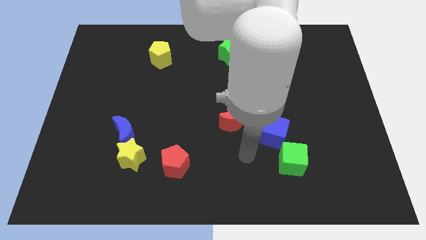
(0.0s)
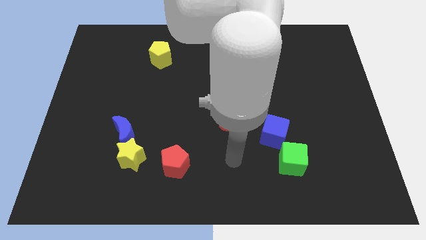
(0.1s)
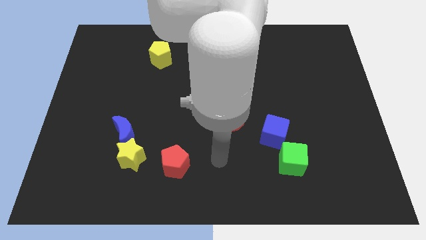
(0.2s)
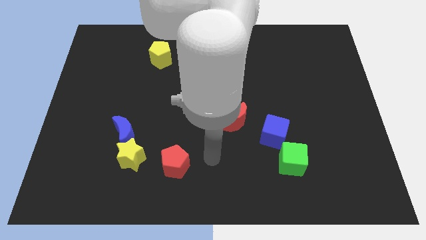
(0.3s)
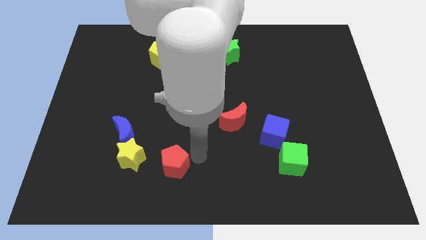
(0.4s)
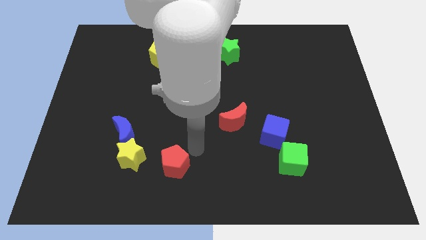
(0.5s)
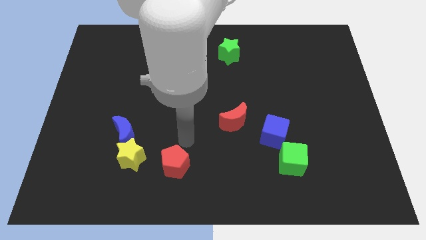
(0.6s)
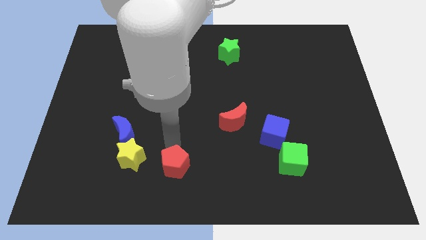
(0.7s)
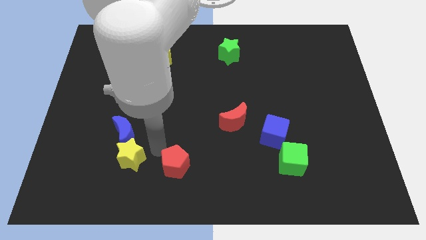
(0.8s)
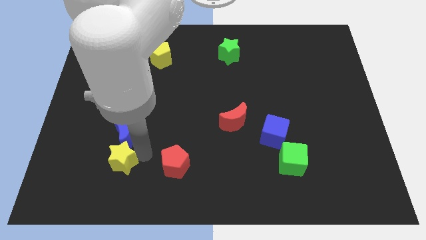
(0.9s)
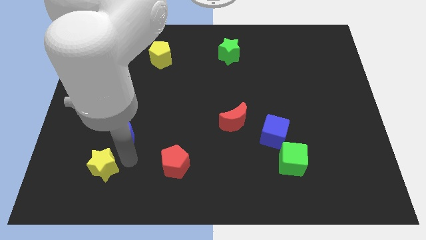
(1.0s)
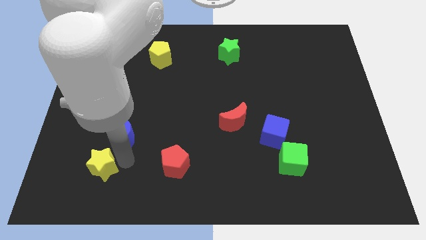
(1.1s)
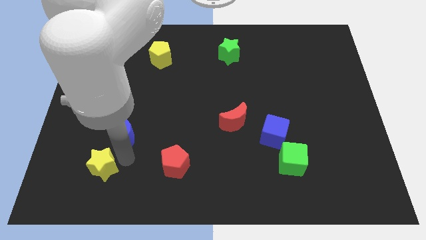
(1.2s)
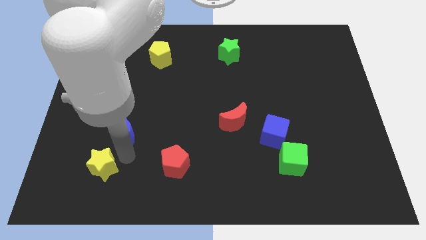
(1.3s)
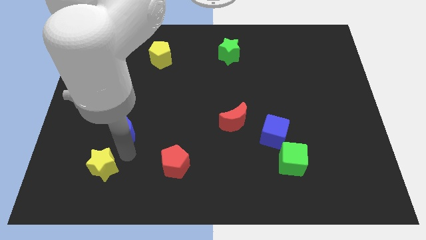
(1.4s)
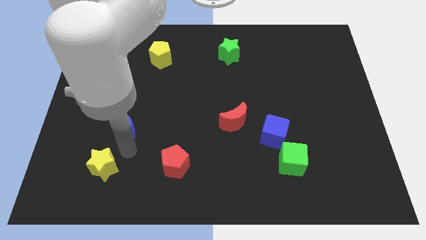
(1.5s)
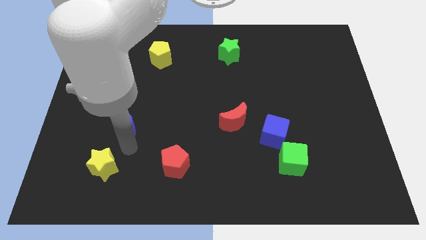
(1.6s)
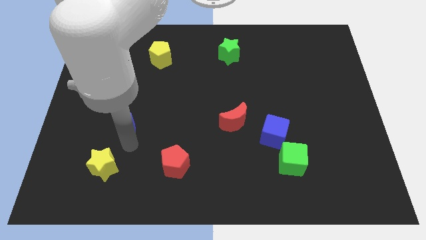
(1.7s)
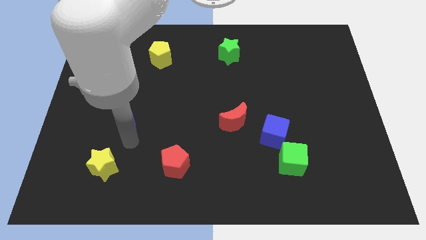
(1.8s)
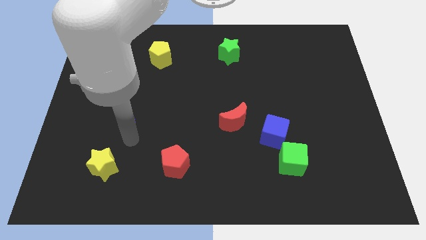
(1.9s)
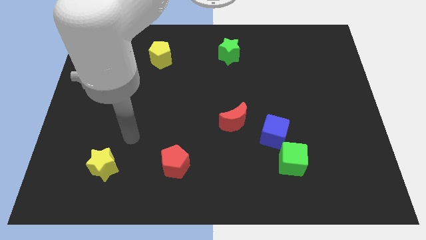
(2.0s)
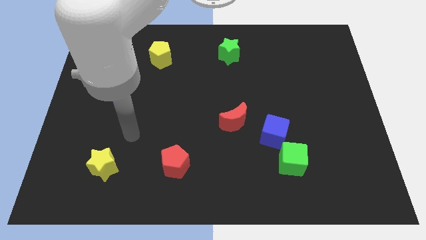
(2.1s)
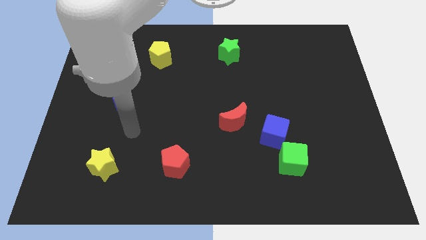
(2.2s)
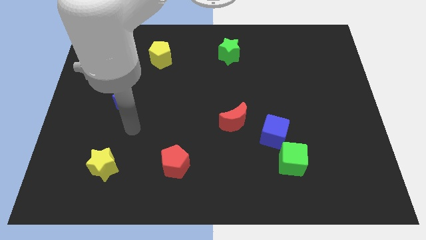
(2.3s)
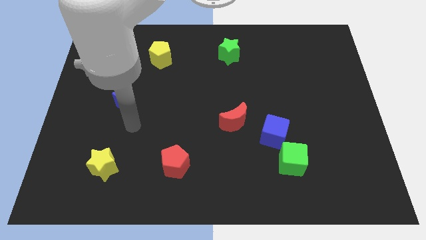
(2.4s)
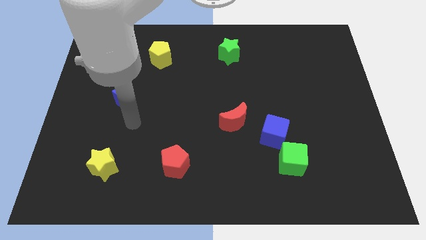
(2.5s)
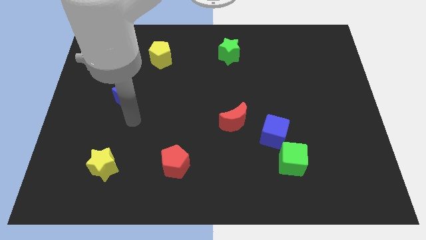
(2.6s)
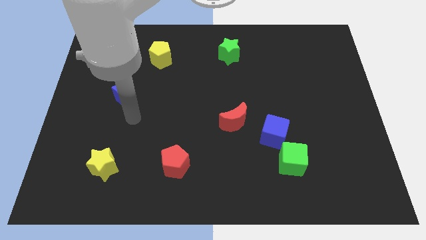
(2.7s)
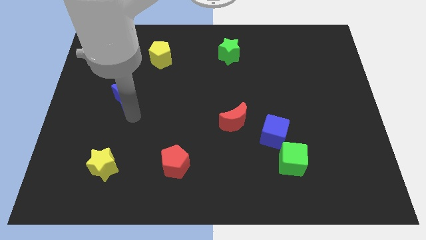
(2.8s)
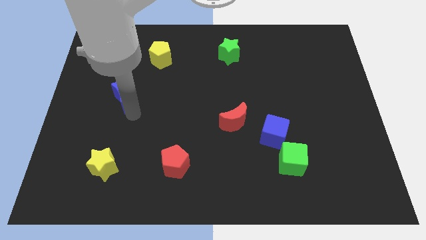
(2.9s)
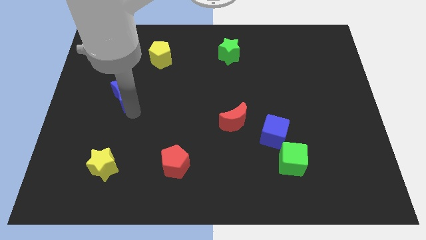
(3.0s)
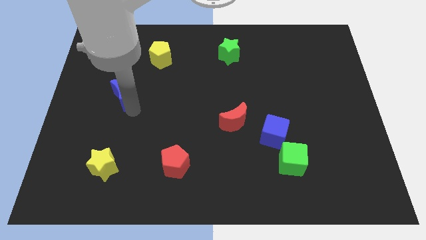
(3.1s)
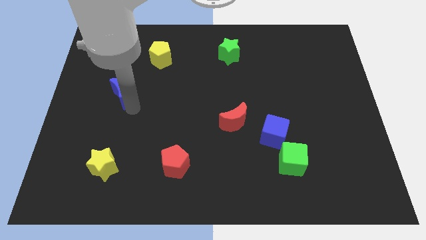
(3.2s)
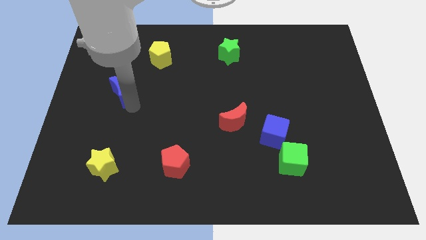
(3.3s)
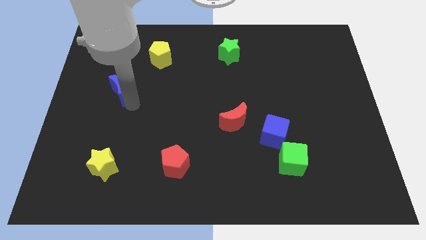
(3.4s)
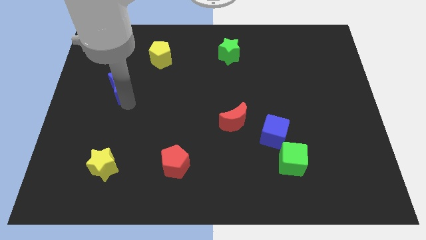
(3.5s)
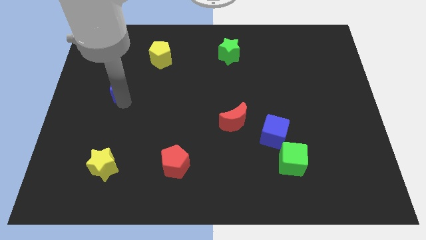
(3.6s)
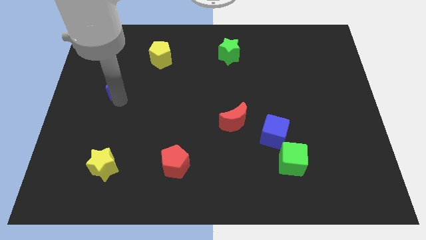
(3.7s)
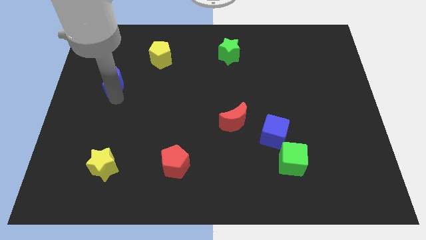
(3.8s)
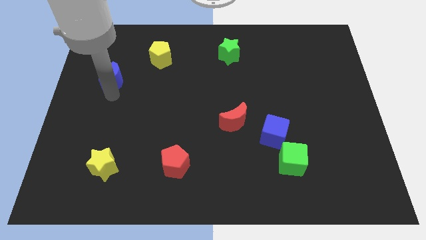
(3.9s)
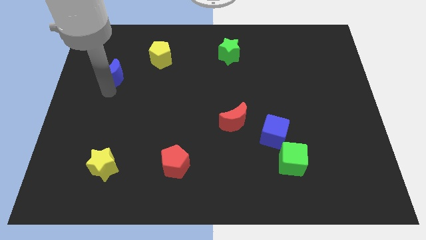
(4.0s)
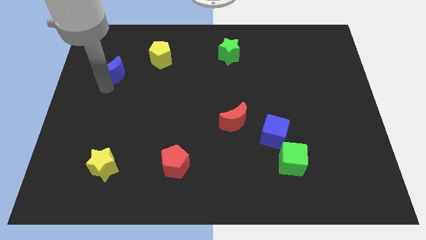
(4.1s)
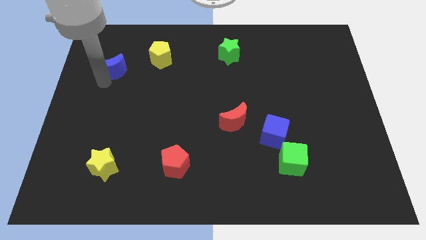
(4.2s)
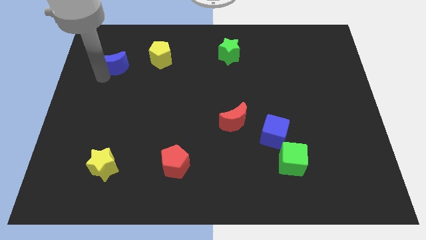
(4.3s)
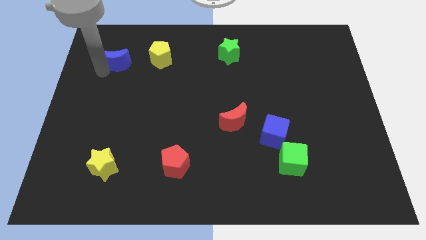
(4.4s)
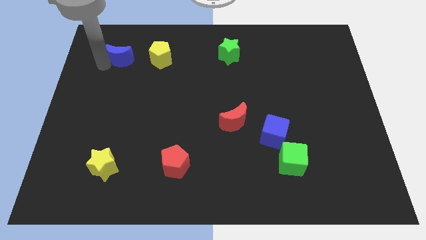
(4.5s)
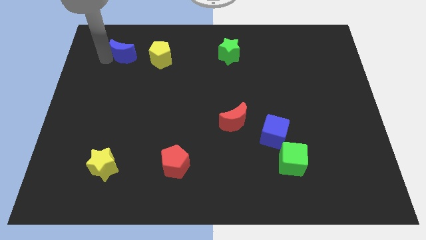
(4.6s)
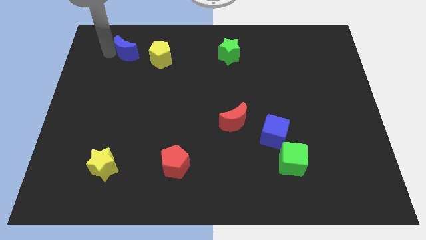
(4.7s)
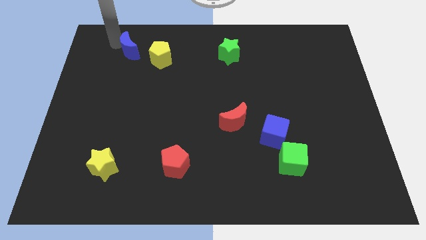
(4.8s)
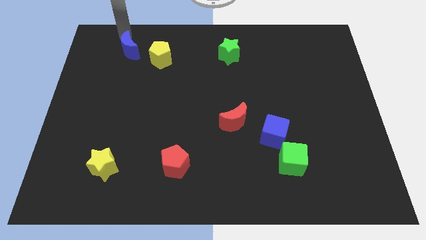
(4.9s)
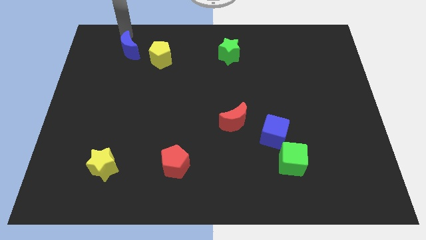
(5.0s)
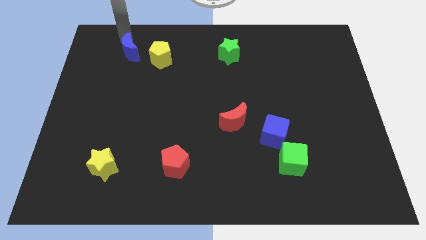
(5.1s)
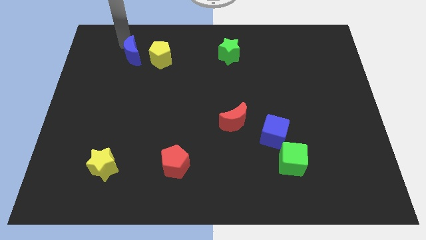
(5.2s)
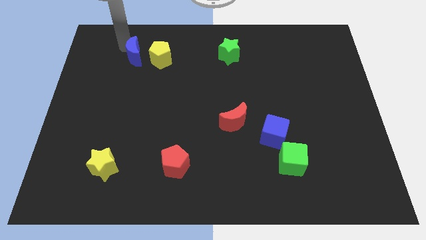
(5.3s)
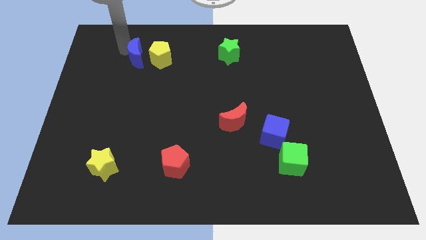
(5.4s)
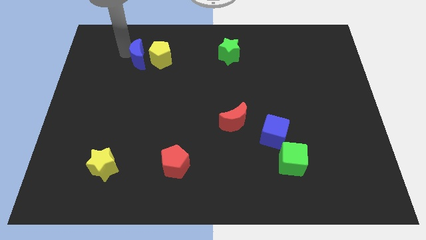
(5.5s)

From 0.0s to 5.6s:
move the blue moon to the bottom left side of the yellow pentagon

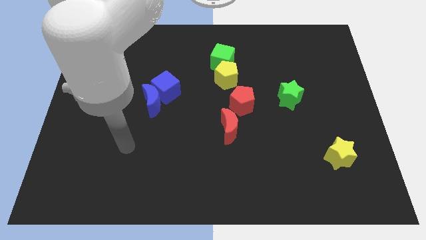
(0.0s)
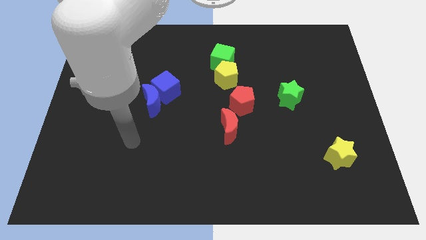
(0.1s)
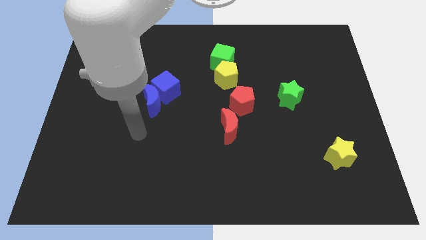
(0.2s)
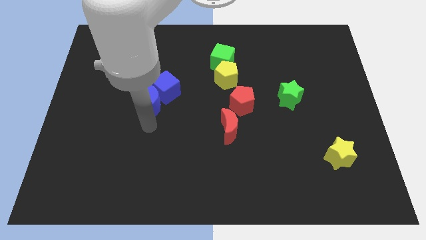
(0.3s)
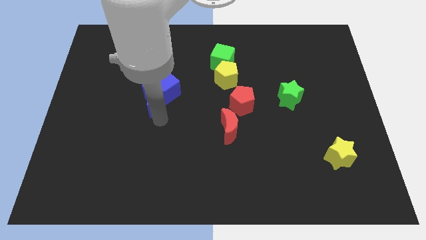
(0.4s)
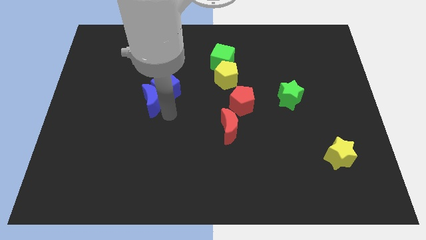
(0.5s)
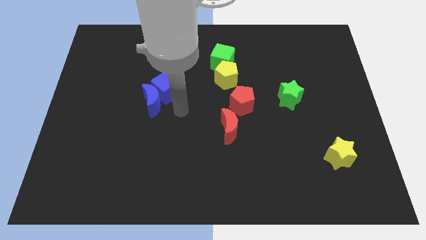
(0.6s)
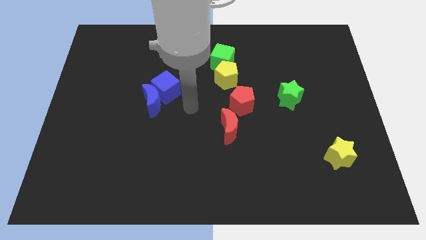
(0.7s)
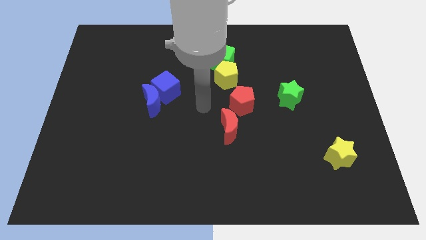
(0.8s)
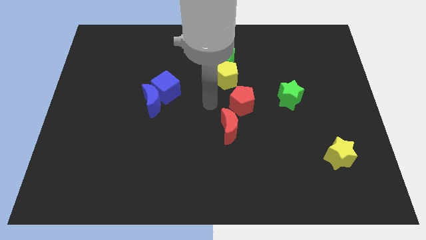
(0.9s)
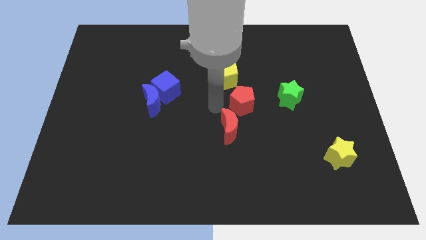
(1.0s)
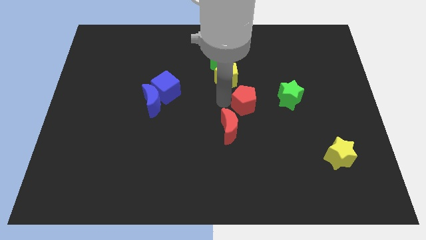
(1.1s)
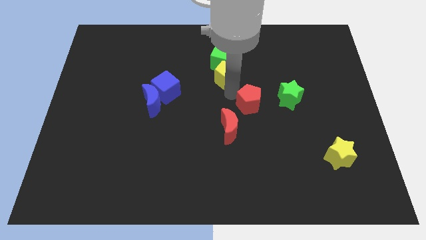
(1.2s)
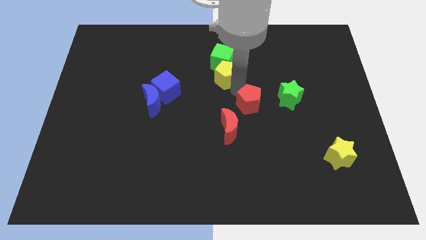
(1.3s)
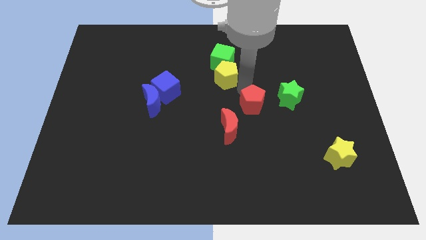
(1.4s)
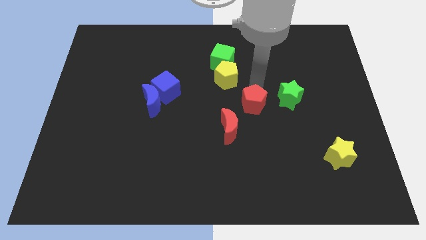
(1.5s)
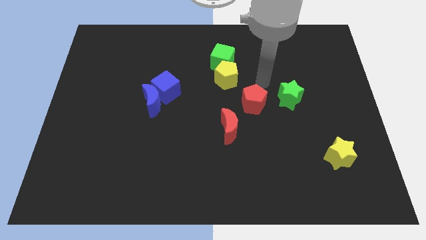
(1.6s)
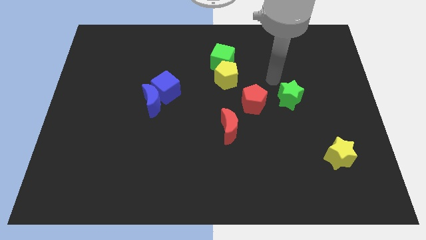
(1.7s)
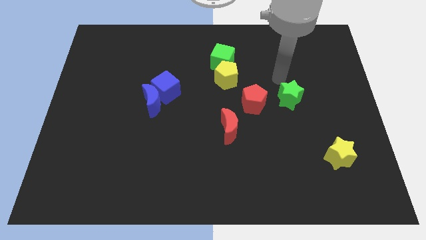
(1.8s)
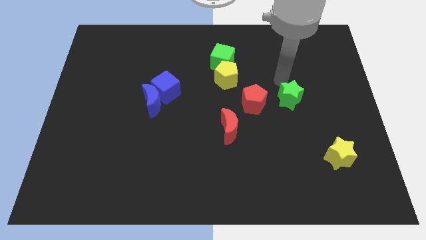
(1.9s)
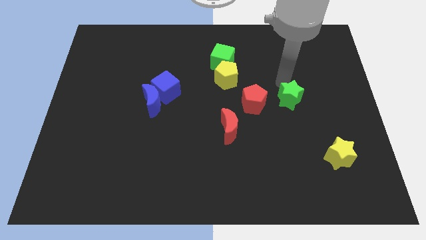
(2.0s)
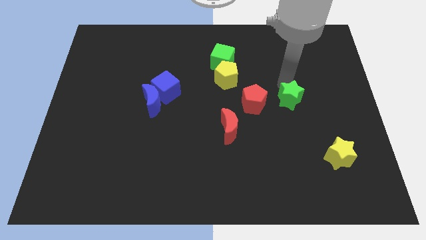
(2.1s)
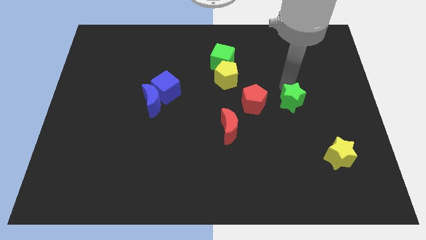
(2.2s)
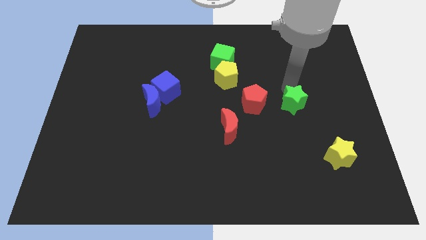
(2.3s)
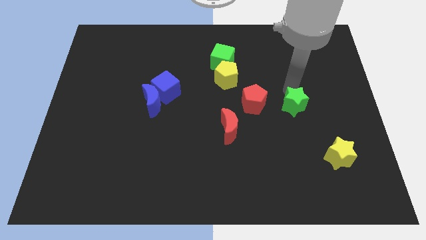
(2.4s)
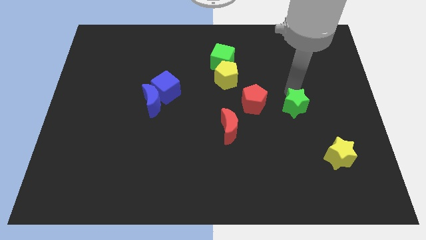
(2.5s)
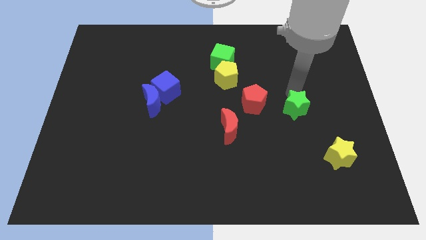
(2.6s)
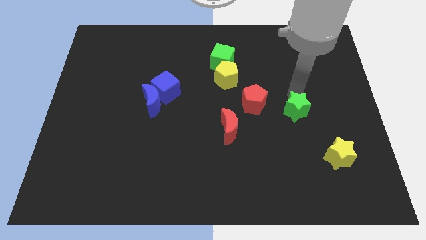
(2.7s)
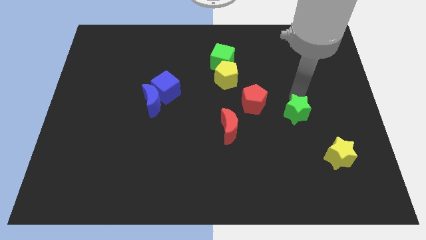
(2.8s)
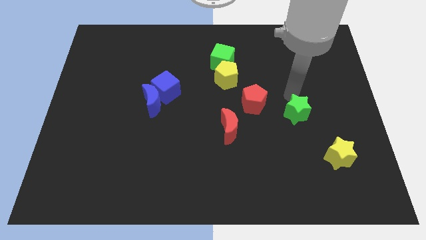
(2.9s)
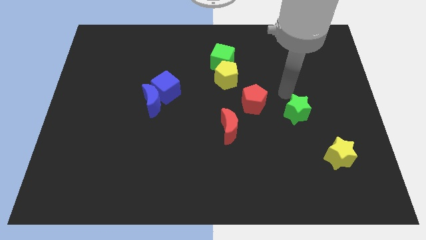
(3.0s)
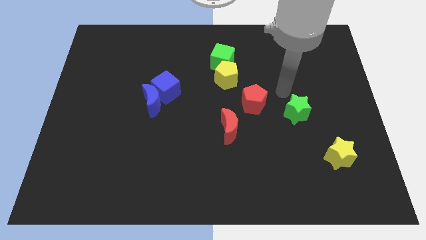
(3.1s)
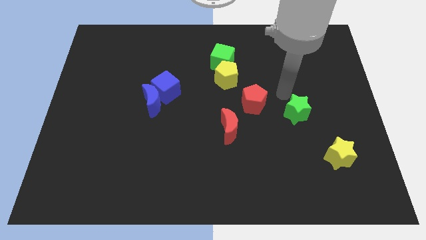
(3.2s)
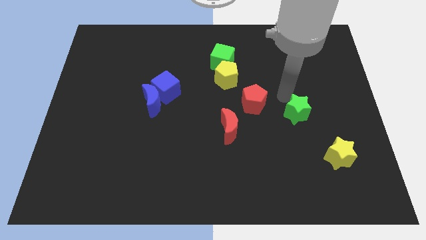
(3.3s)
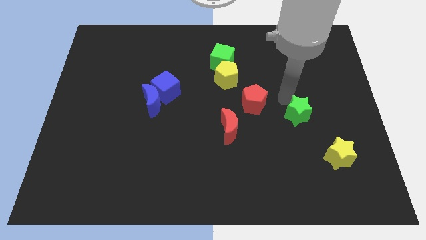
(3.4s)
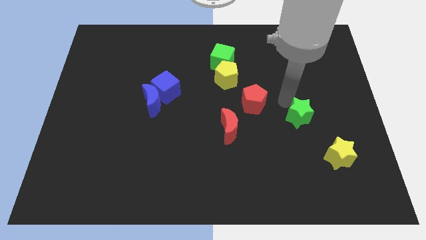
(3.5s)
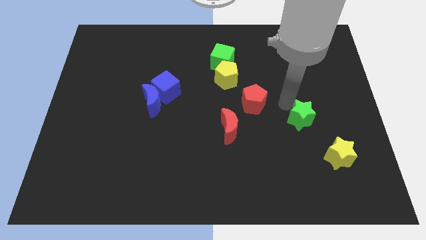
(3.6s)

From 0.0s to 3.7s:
put the green star to the top left side of the yellow star
